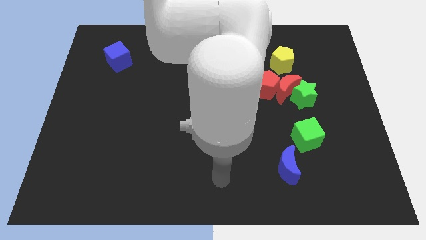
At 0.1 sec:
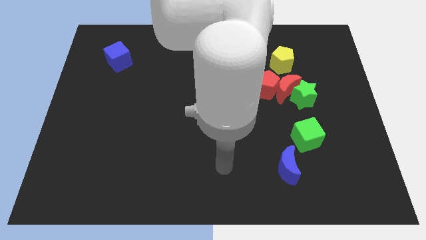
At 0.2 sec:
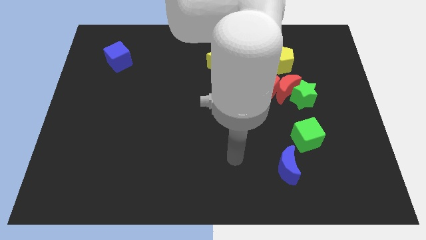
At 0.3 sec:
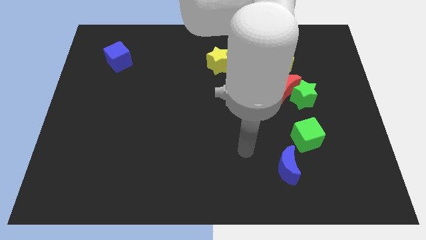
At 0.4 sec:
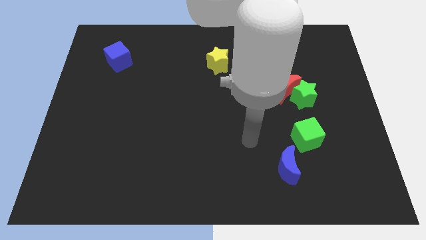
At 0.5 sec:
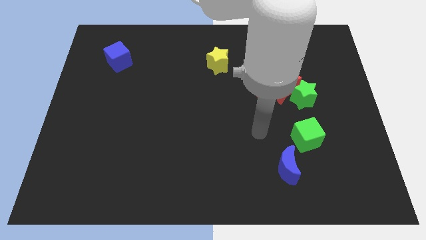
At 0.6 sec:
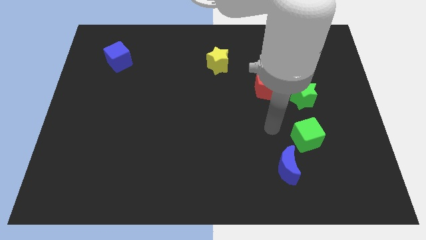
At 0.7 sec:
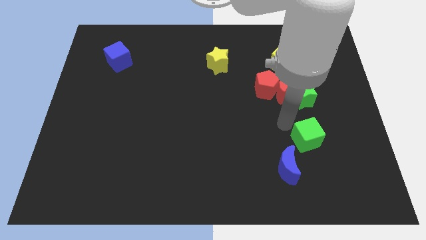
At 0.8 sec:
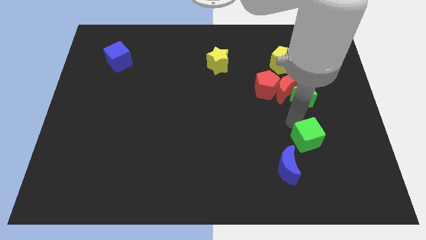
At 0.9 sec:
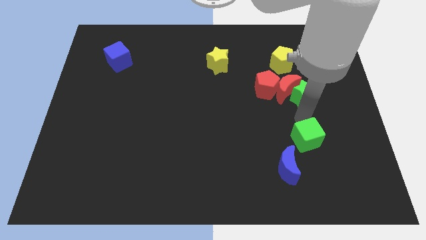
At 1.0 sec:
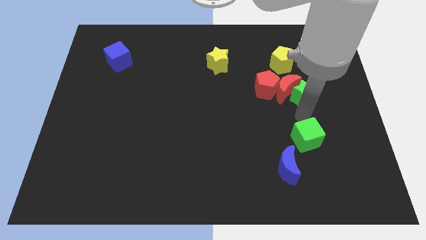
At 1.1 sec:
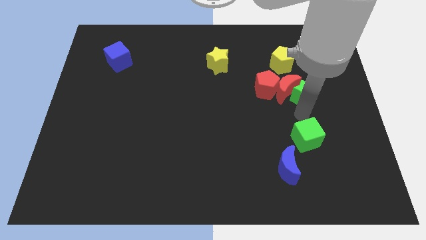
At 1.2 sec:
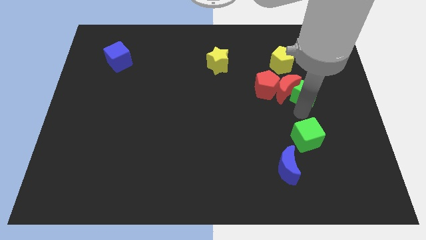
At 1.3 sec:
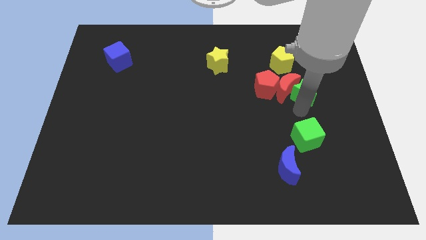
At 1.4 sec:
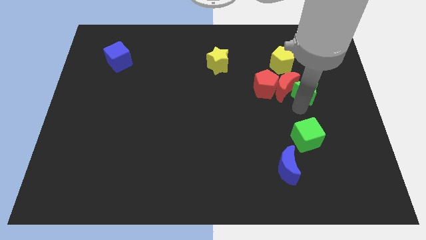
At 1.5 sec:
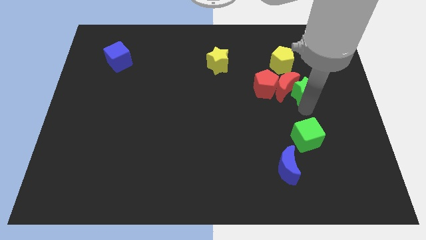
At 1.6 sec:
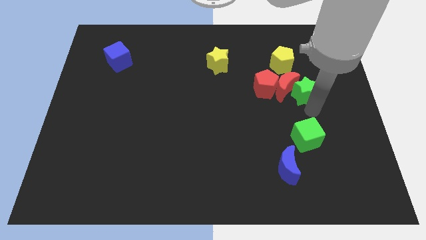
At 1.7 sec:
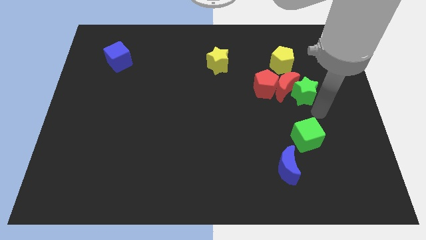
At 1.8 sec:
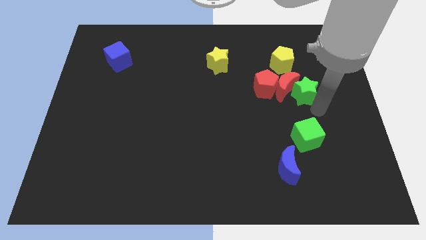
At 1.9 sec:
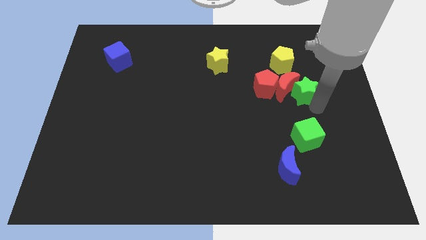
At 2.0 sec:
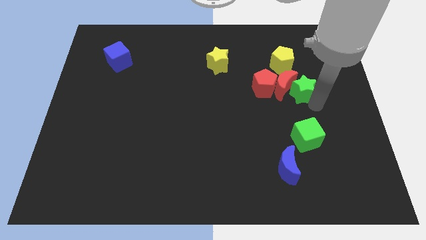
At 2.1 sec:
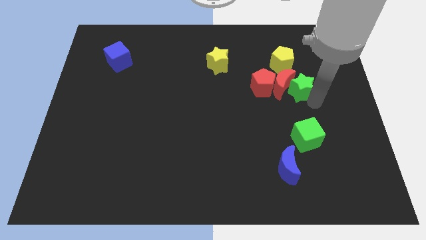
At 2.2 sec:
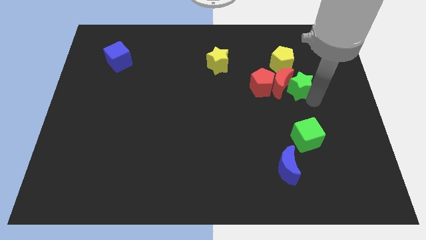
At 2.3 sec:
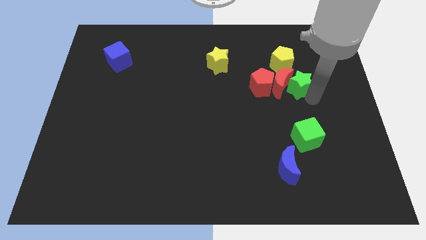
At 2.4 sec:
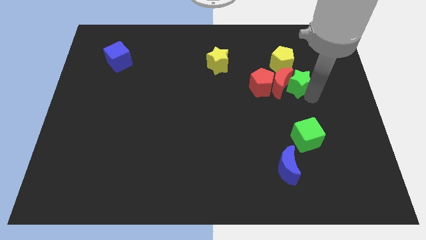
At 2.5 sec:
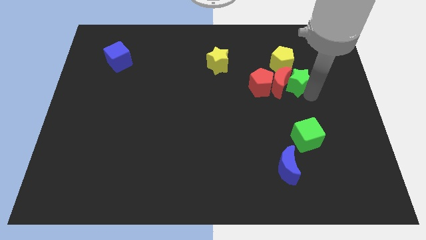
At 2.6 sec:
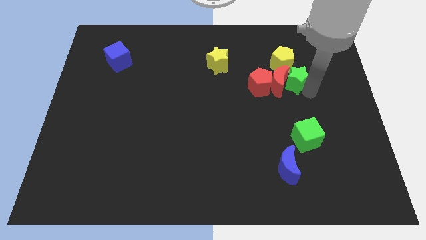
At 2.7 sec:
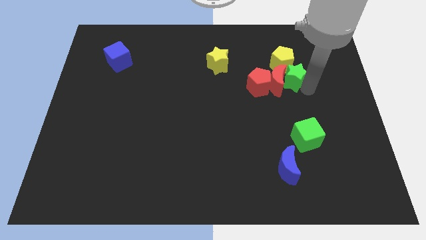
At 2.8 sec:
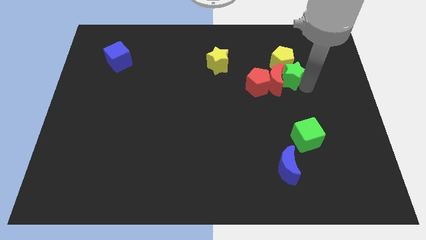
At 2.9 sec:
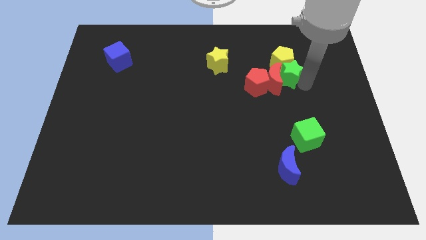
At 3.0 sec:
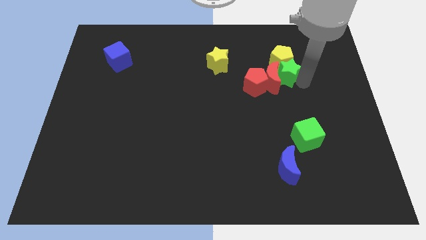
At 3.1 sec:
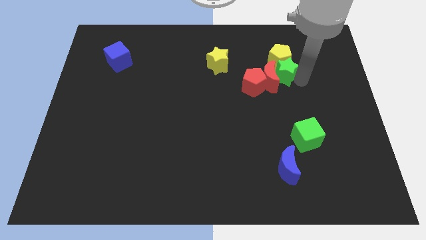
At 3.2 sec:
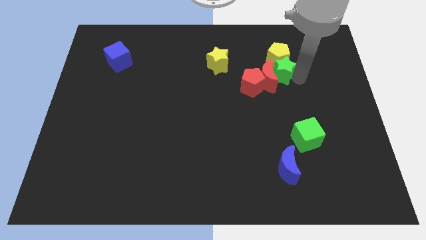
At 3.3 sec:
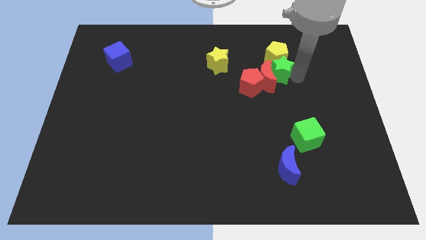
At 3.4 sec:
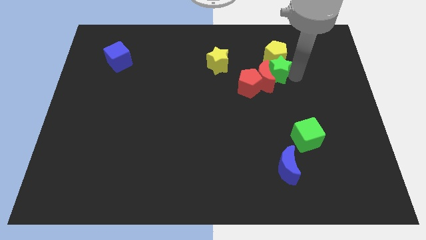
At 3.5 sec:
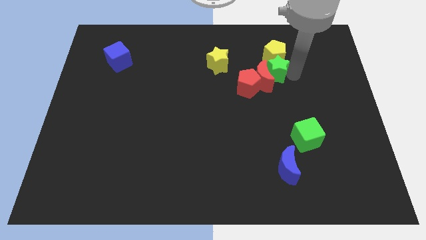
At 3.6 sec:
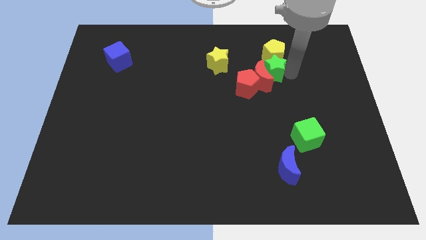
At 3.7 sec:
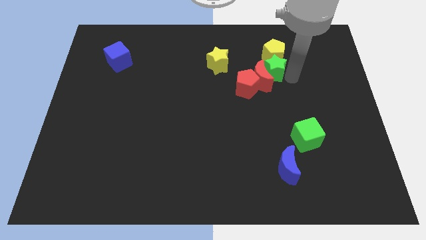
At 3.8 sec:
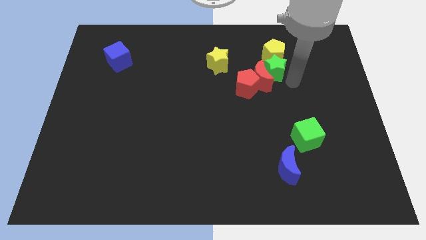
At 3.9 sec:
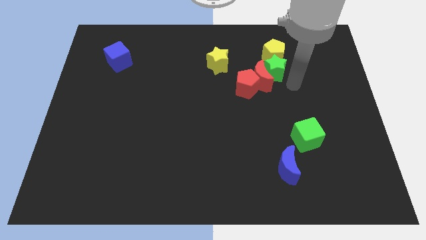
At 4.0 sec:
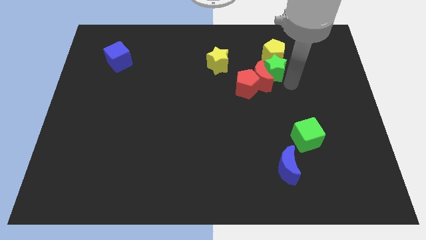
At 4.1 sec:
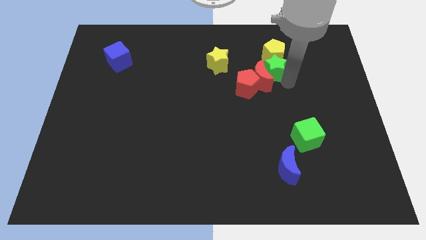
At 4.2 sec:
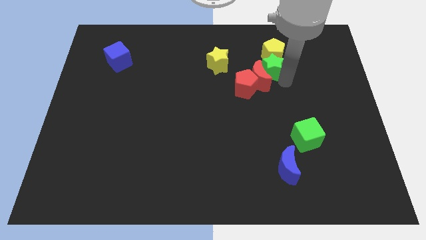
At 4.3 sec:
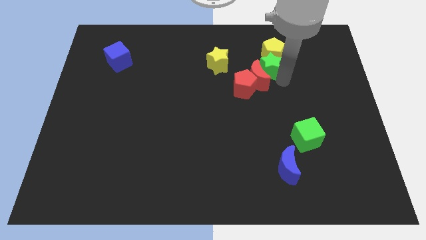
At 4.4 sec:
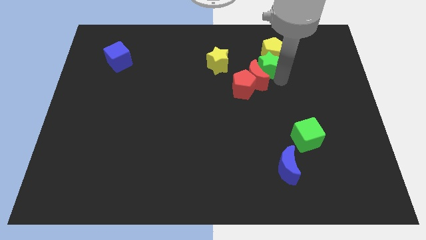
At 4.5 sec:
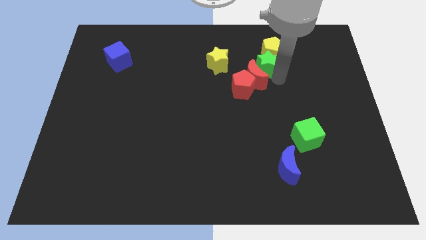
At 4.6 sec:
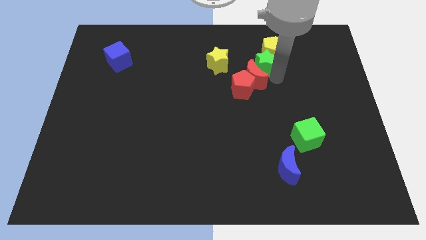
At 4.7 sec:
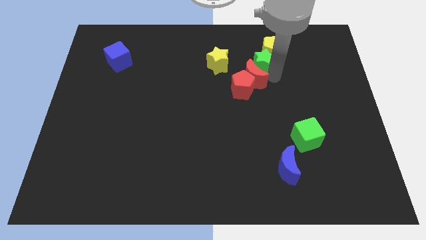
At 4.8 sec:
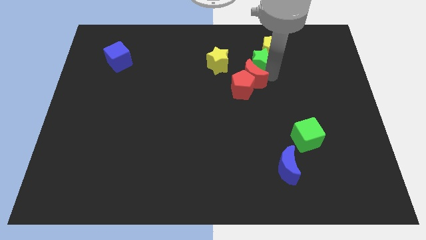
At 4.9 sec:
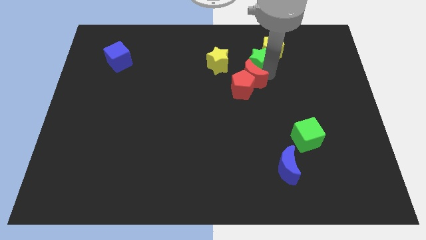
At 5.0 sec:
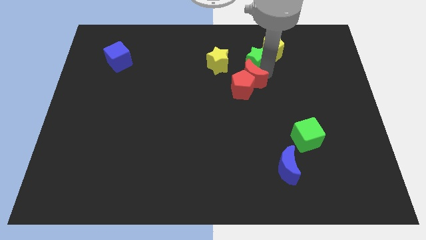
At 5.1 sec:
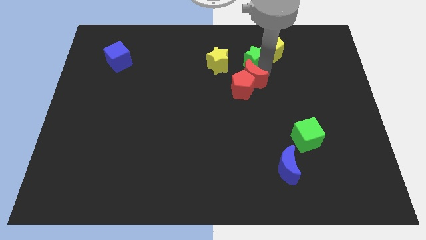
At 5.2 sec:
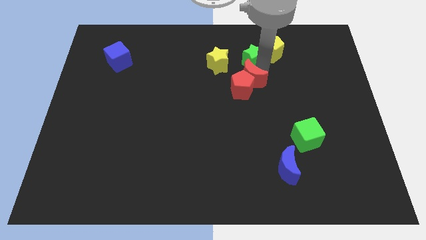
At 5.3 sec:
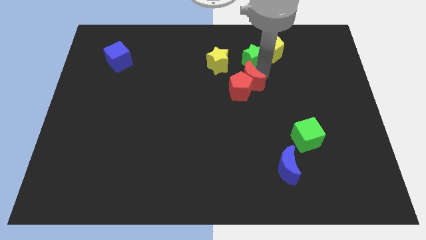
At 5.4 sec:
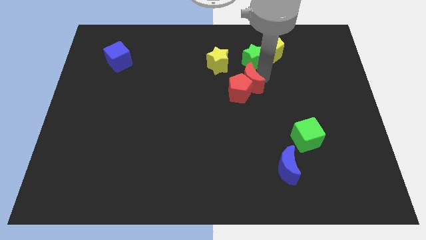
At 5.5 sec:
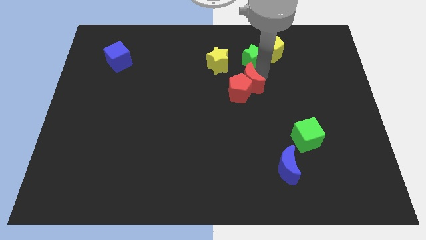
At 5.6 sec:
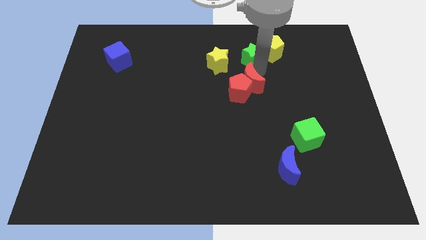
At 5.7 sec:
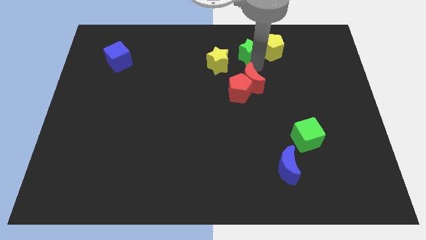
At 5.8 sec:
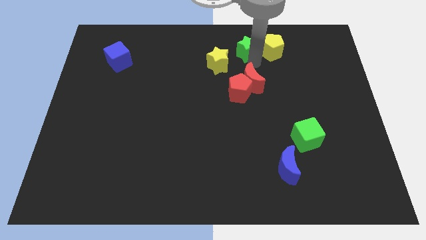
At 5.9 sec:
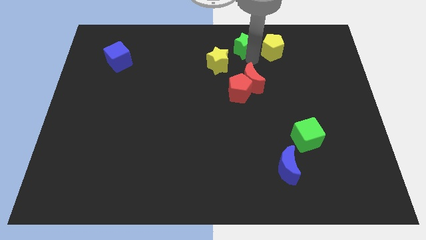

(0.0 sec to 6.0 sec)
slide the green star to the towards your base
